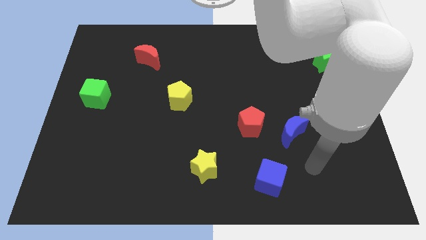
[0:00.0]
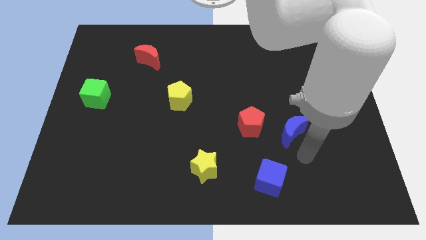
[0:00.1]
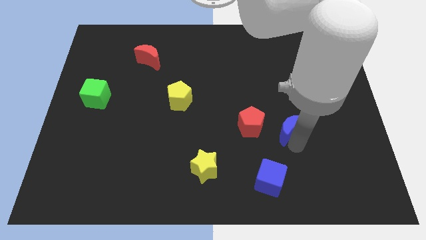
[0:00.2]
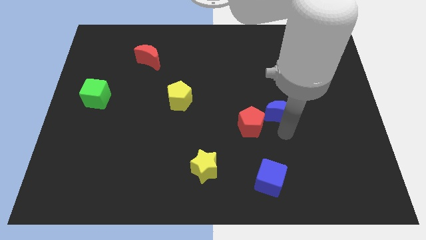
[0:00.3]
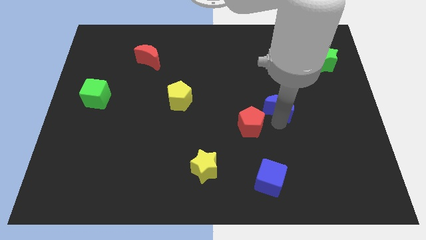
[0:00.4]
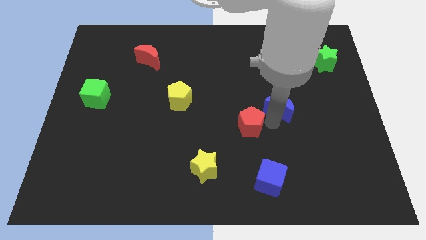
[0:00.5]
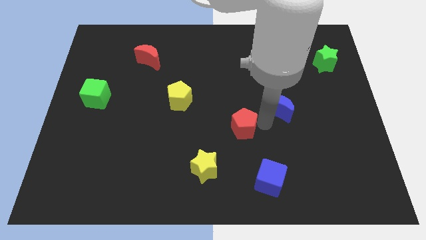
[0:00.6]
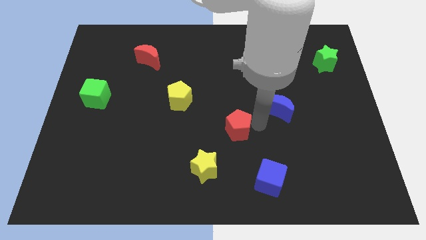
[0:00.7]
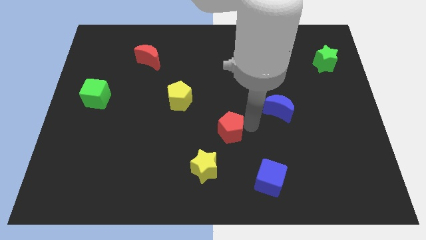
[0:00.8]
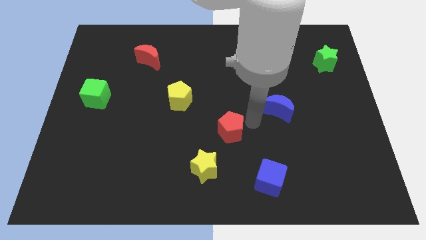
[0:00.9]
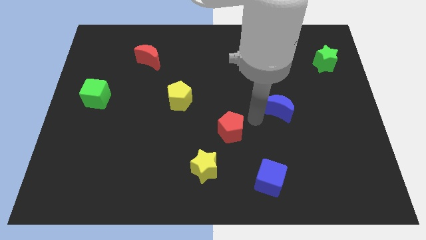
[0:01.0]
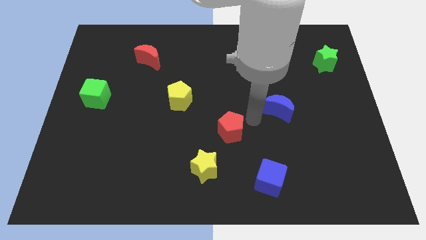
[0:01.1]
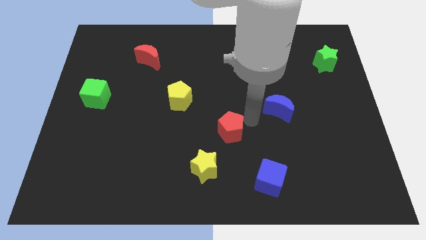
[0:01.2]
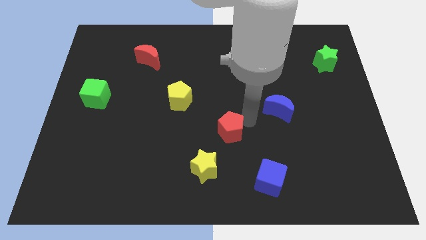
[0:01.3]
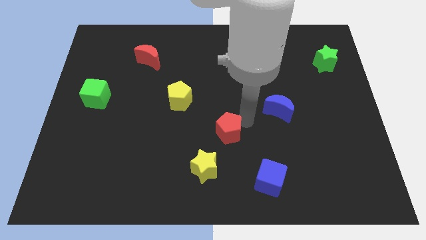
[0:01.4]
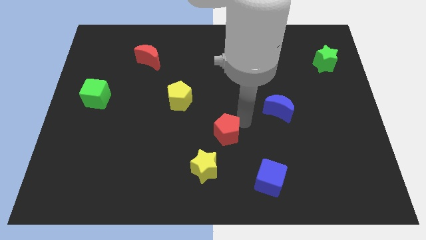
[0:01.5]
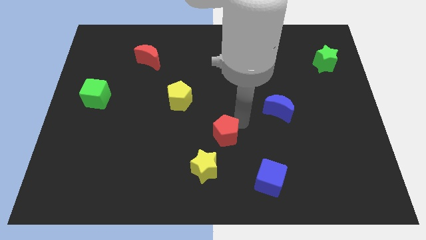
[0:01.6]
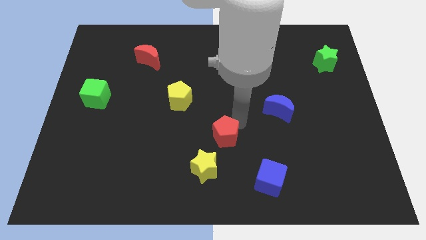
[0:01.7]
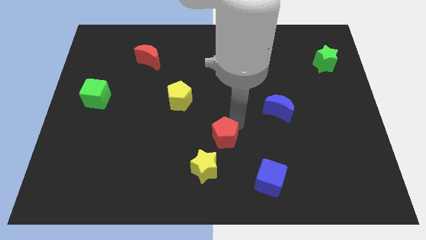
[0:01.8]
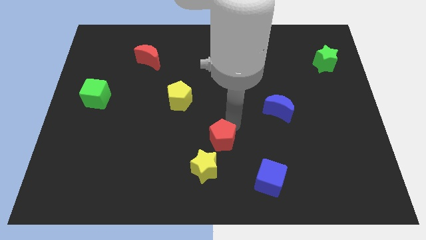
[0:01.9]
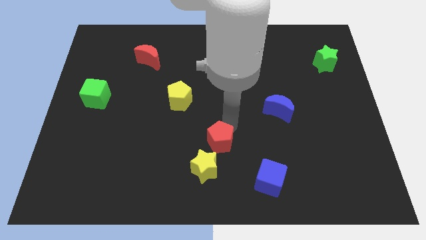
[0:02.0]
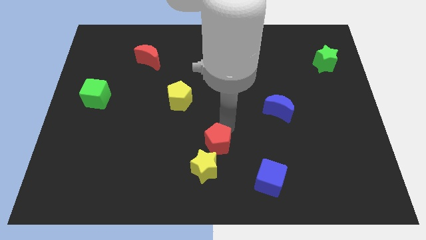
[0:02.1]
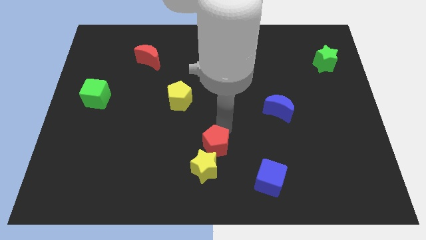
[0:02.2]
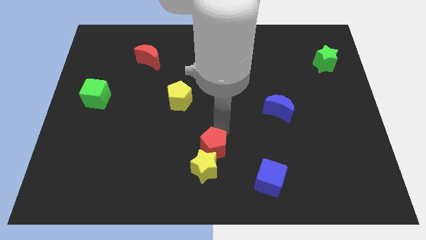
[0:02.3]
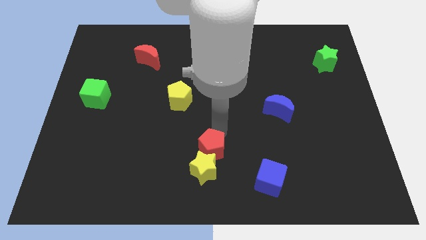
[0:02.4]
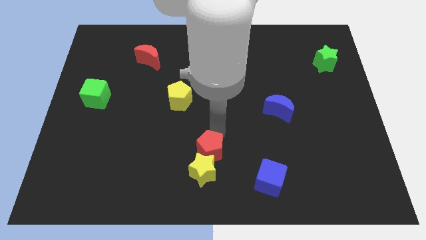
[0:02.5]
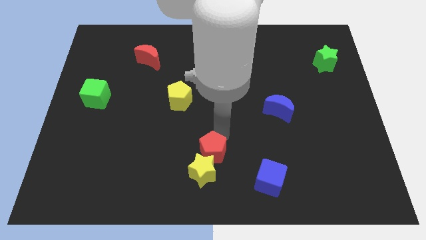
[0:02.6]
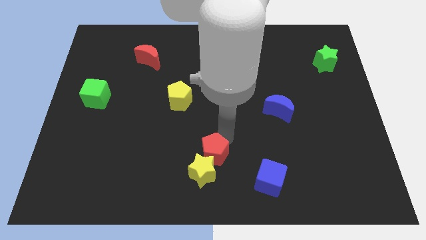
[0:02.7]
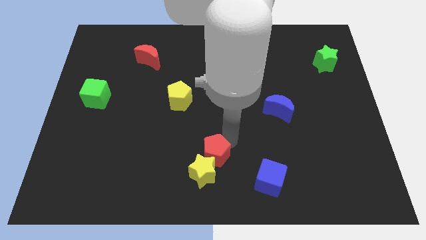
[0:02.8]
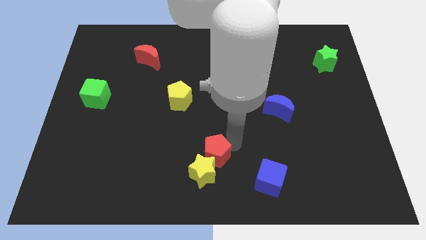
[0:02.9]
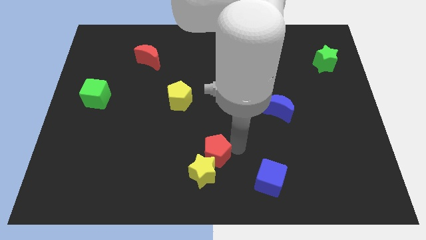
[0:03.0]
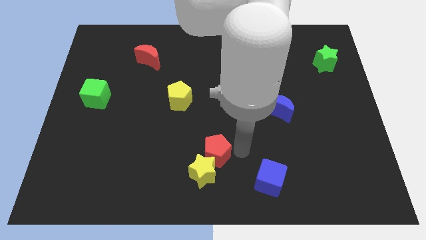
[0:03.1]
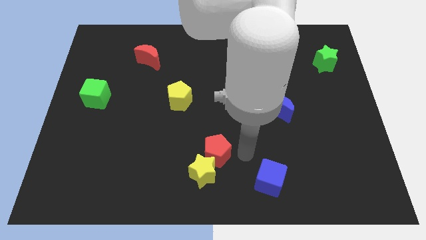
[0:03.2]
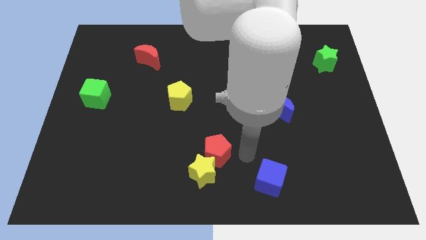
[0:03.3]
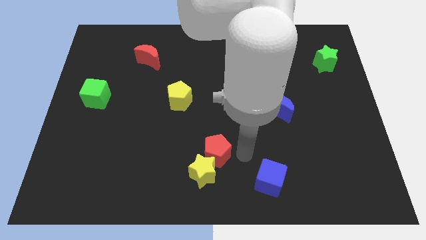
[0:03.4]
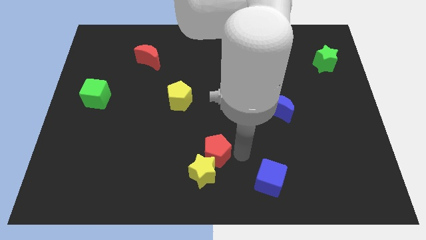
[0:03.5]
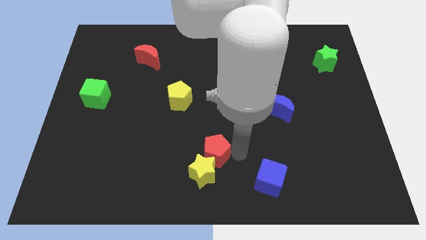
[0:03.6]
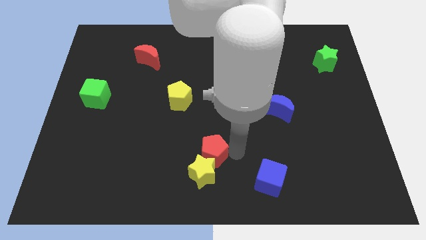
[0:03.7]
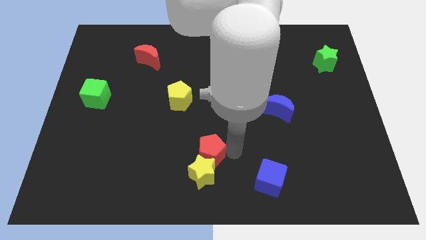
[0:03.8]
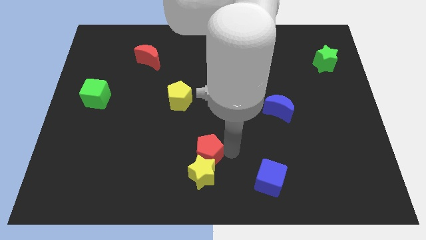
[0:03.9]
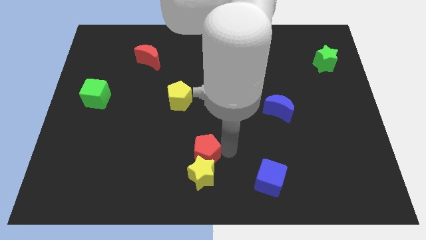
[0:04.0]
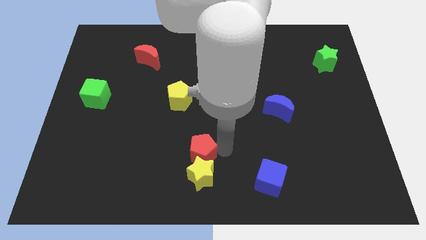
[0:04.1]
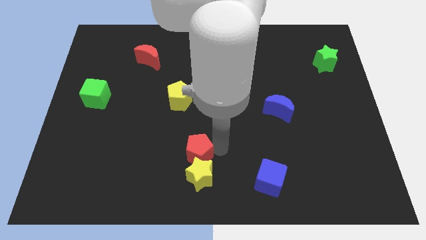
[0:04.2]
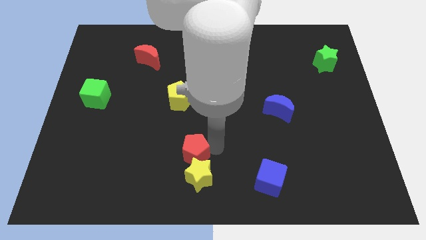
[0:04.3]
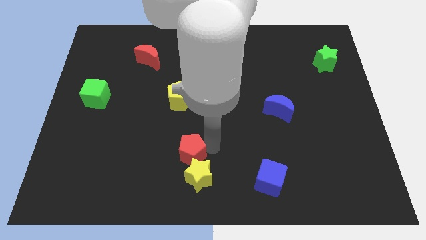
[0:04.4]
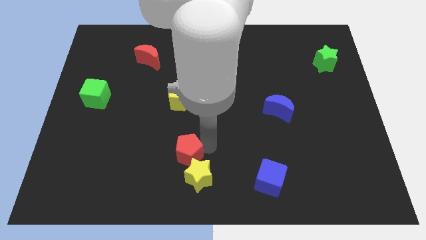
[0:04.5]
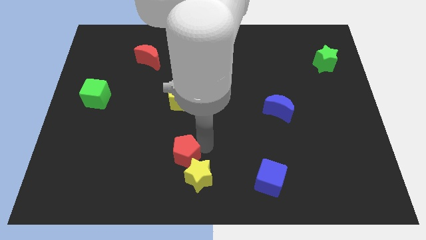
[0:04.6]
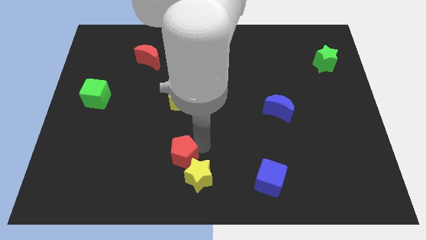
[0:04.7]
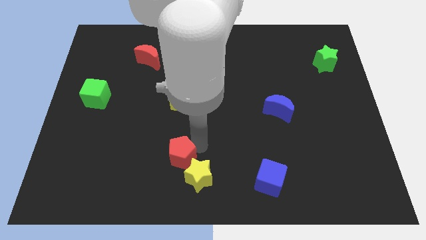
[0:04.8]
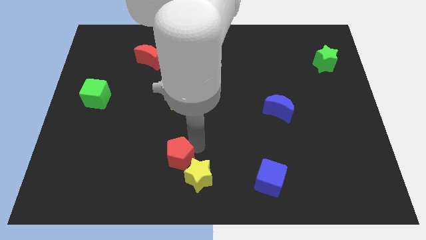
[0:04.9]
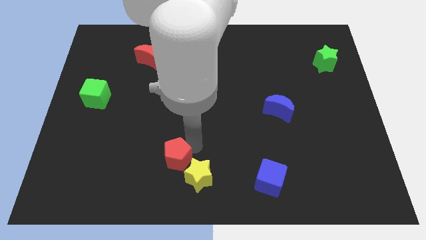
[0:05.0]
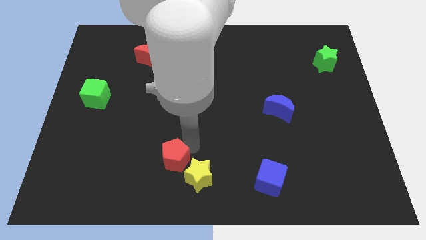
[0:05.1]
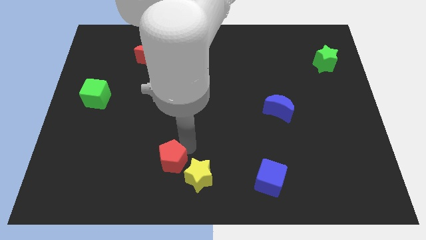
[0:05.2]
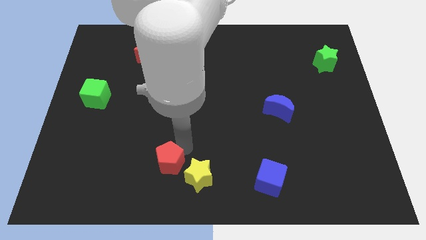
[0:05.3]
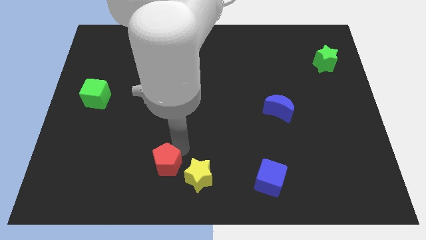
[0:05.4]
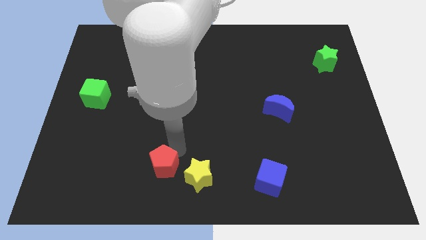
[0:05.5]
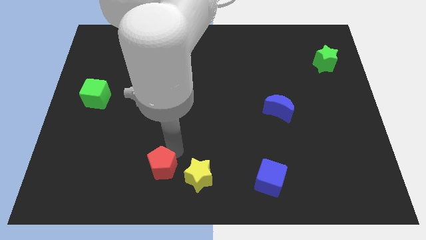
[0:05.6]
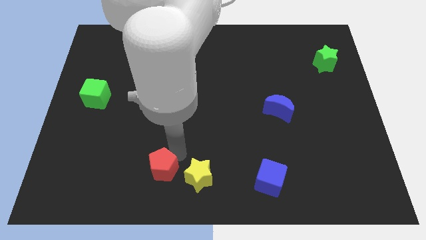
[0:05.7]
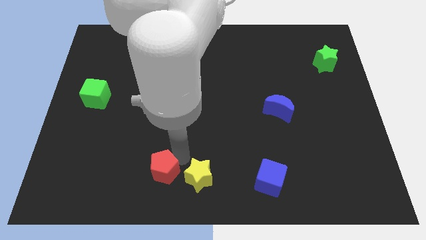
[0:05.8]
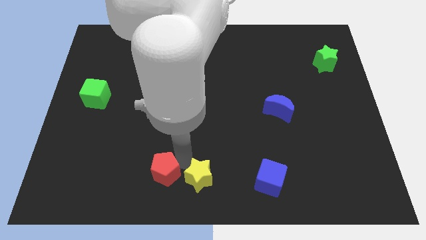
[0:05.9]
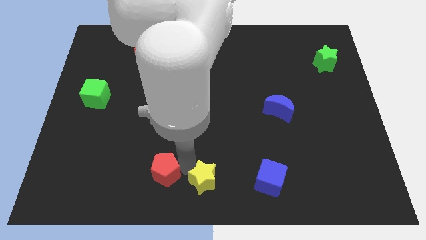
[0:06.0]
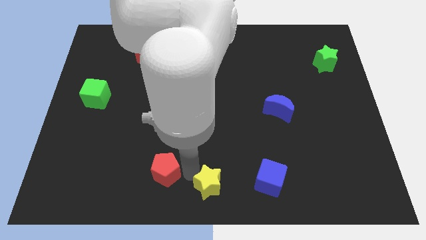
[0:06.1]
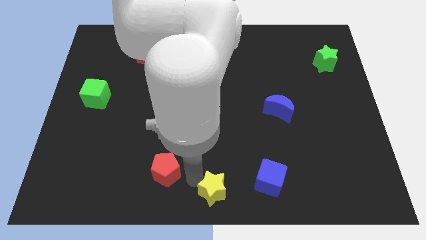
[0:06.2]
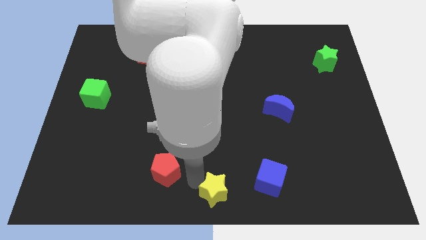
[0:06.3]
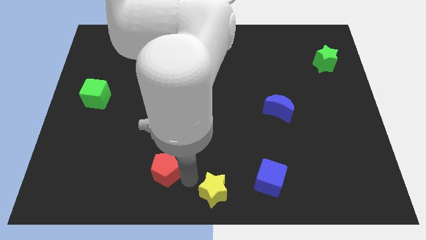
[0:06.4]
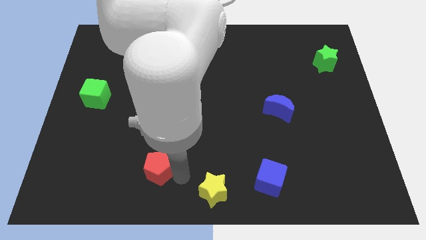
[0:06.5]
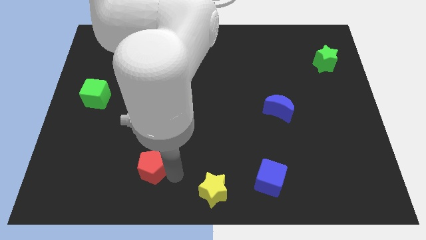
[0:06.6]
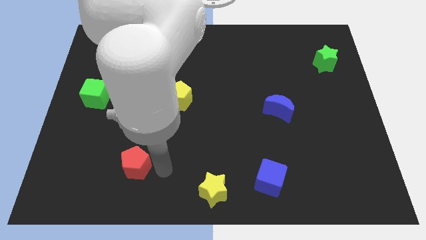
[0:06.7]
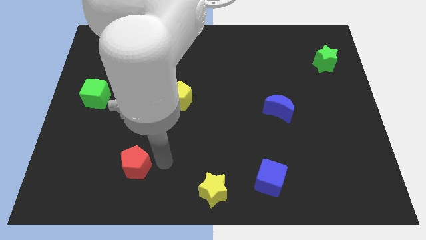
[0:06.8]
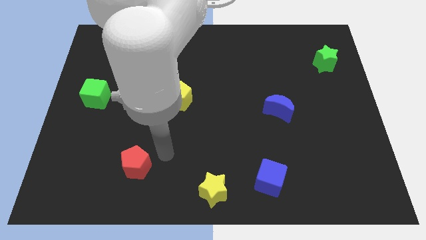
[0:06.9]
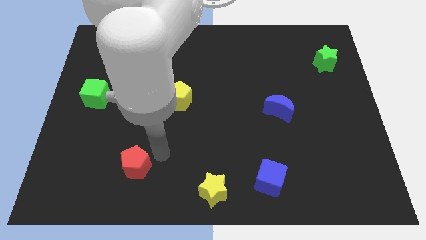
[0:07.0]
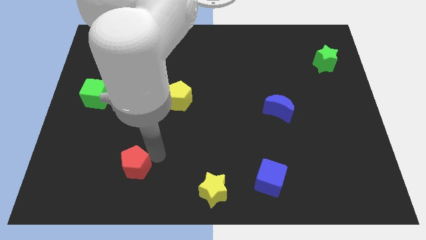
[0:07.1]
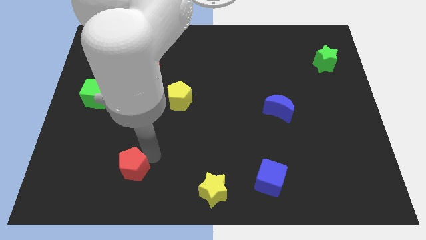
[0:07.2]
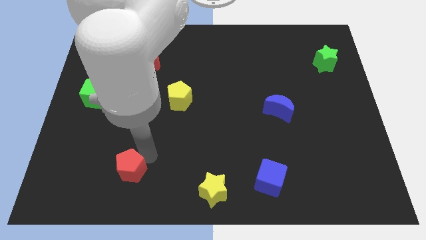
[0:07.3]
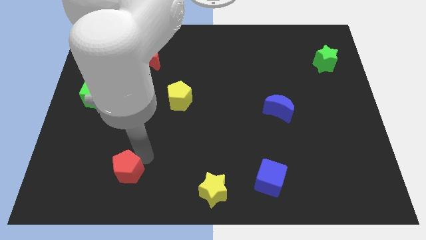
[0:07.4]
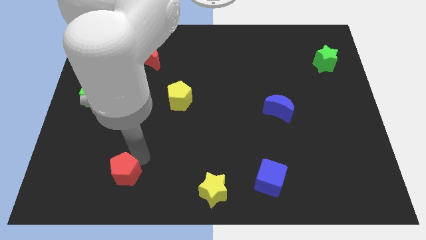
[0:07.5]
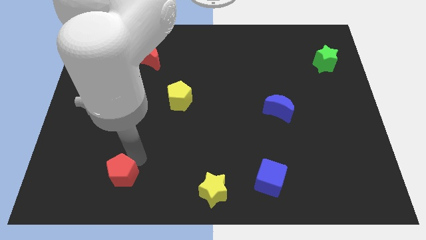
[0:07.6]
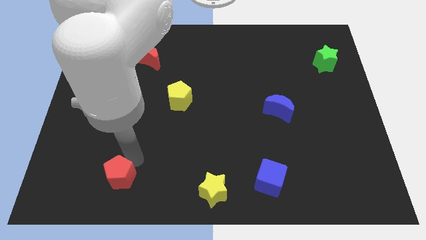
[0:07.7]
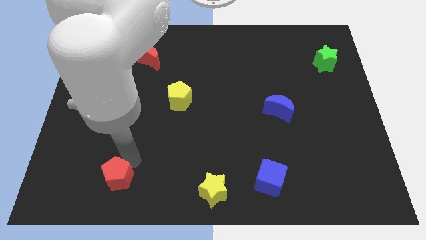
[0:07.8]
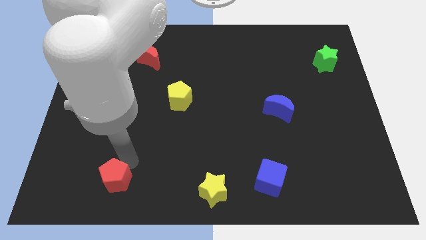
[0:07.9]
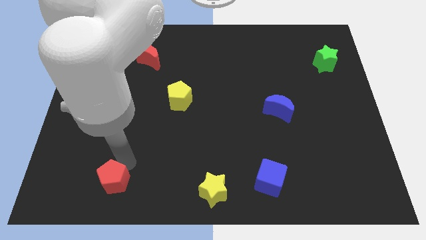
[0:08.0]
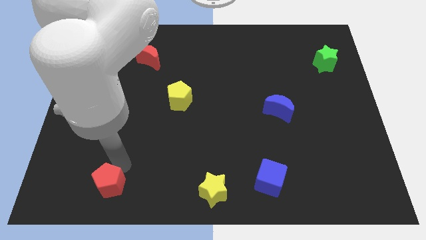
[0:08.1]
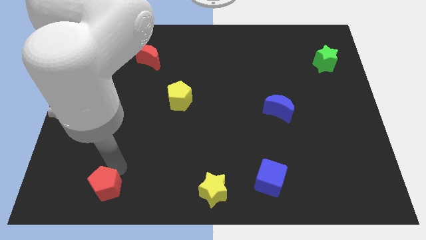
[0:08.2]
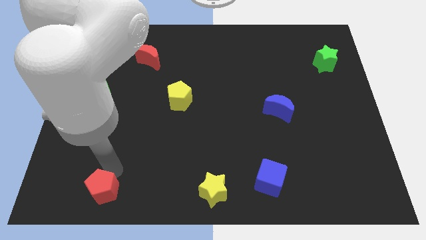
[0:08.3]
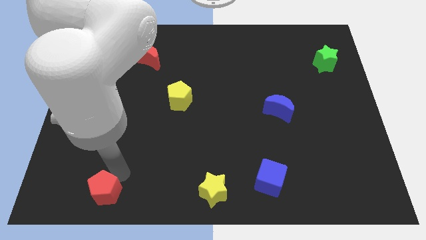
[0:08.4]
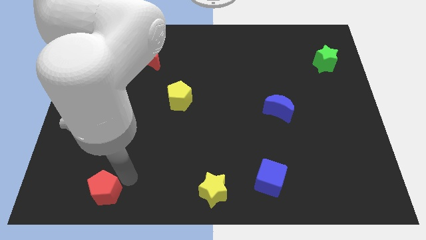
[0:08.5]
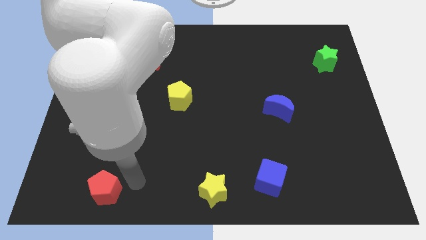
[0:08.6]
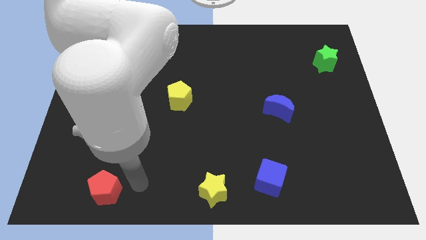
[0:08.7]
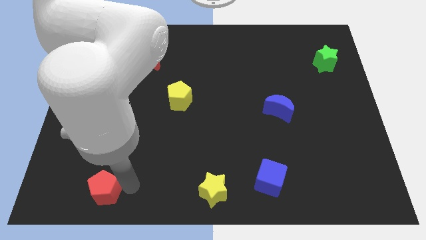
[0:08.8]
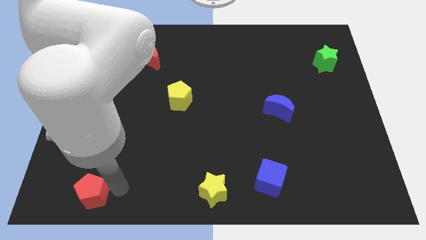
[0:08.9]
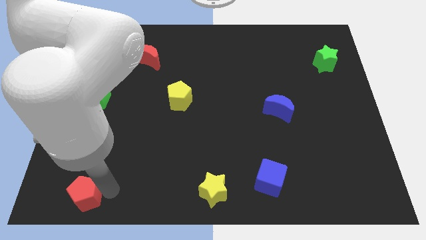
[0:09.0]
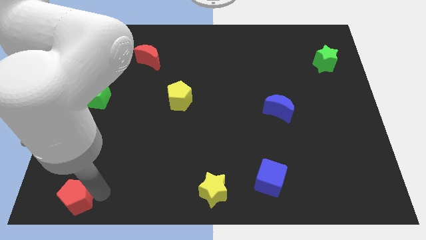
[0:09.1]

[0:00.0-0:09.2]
push the red pentagon to the bottom left of the board
